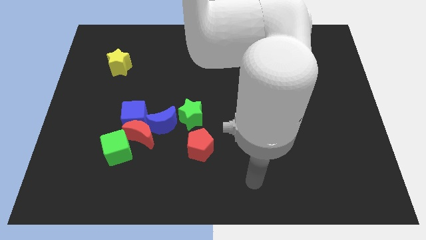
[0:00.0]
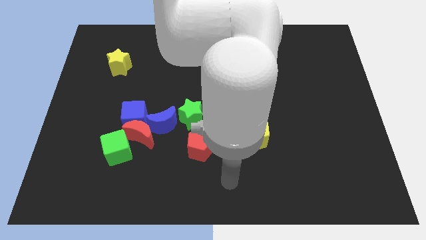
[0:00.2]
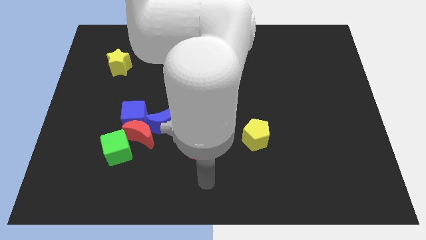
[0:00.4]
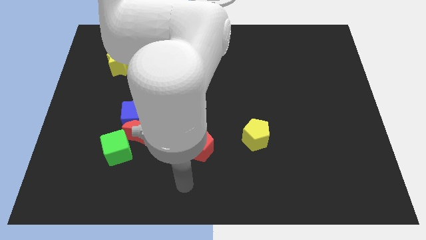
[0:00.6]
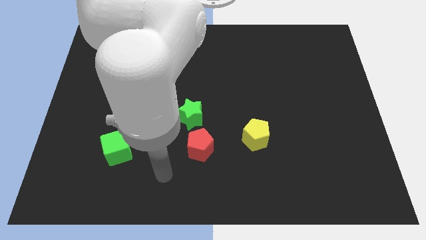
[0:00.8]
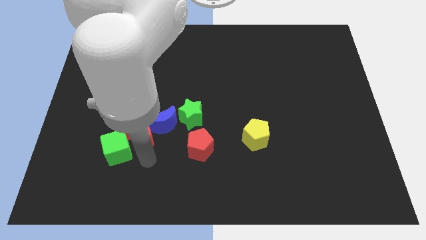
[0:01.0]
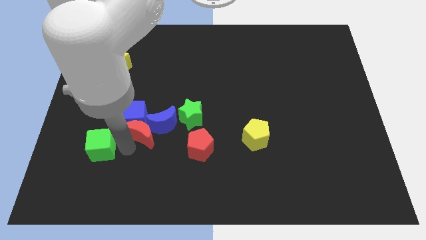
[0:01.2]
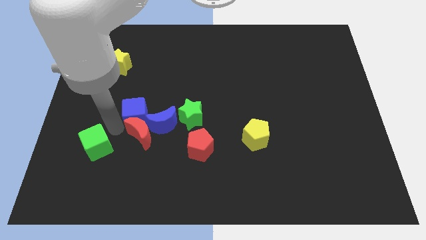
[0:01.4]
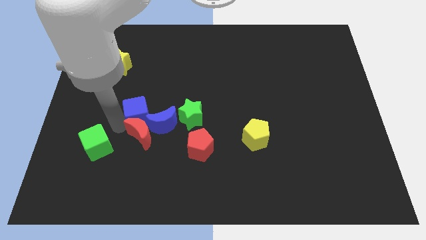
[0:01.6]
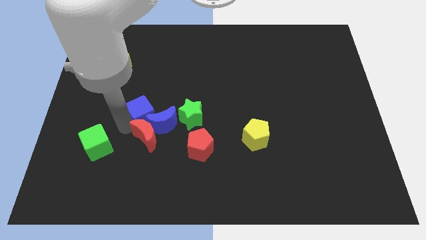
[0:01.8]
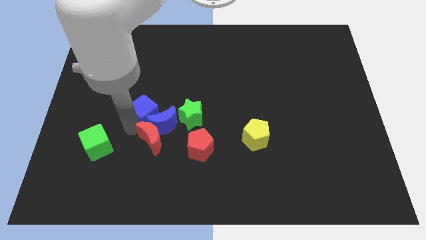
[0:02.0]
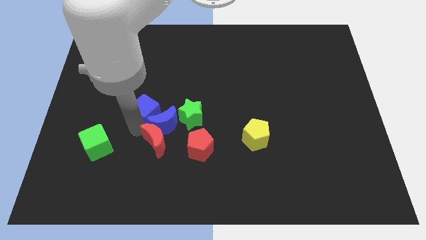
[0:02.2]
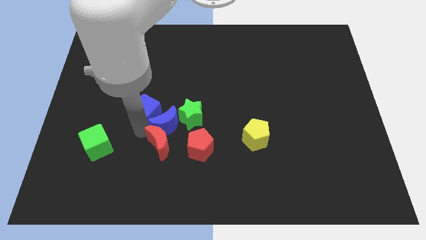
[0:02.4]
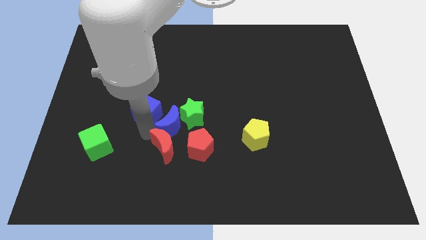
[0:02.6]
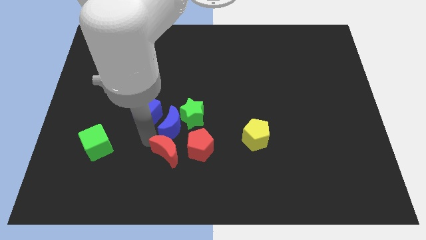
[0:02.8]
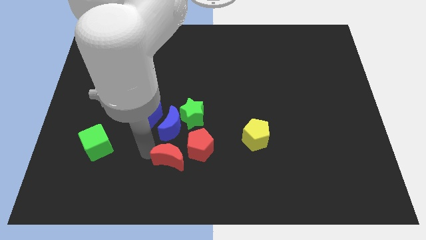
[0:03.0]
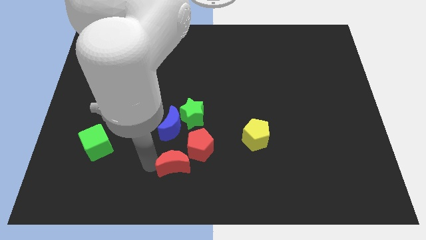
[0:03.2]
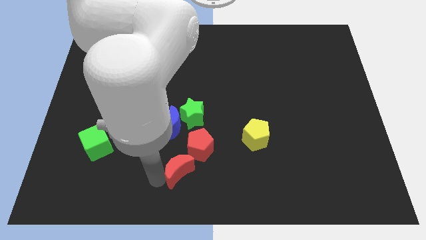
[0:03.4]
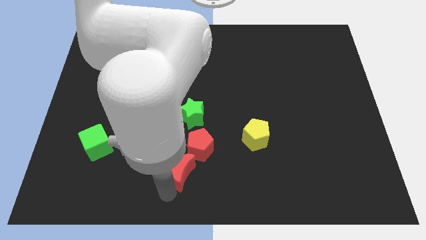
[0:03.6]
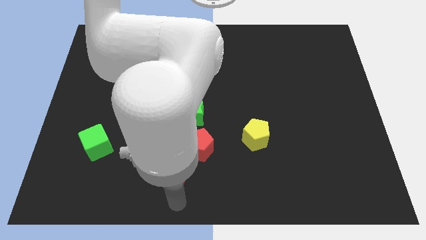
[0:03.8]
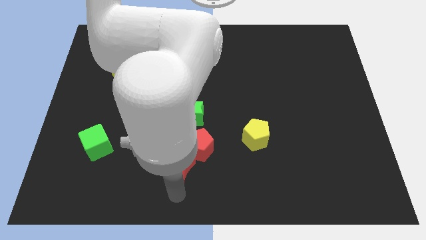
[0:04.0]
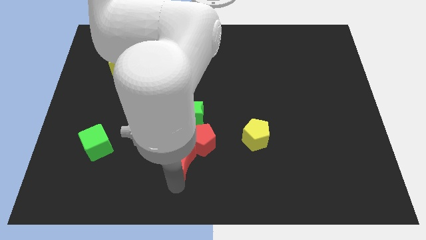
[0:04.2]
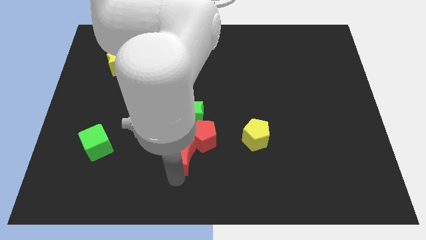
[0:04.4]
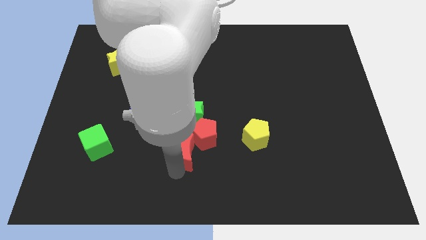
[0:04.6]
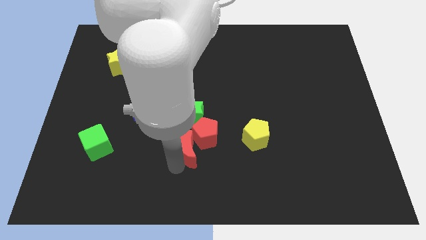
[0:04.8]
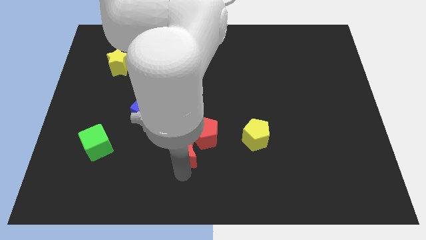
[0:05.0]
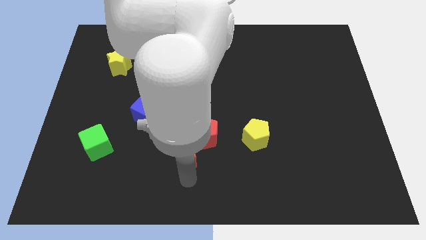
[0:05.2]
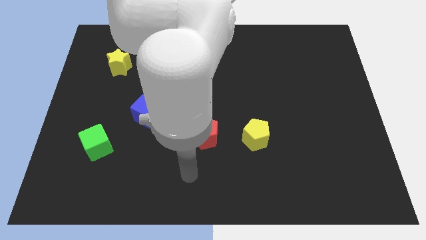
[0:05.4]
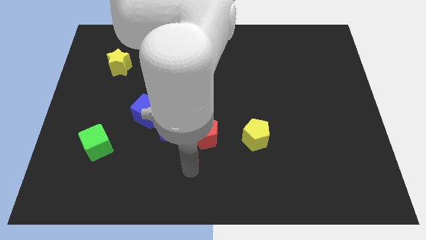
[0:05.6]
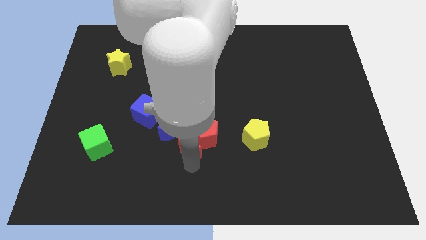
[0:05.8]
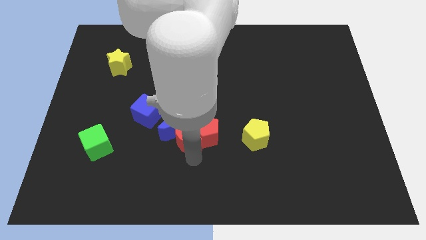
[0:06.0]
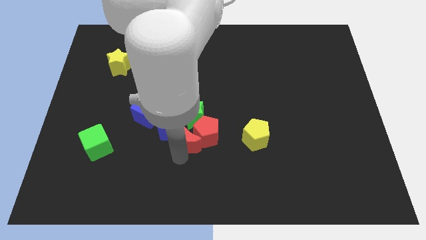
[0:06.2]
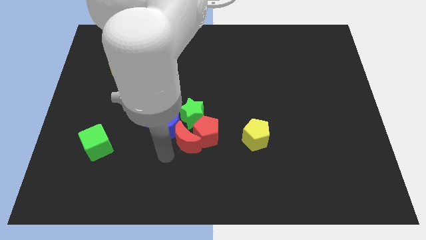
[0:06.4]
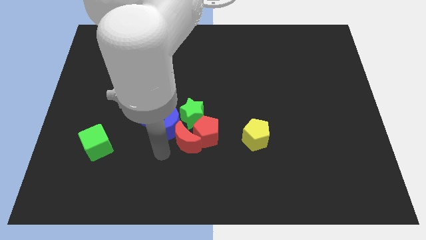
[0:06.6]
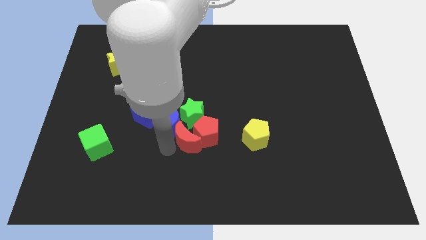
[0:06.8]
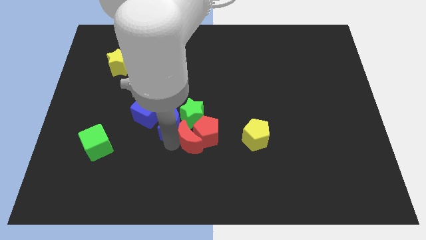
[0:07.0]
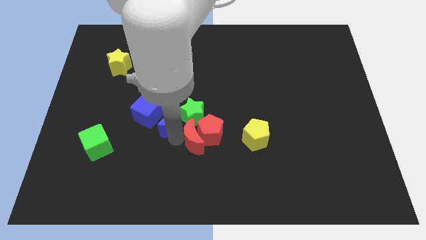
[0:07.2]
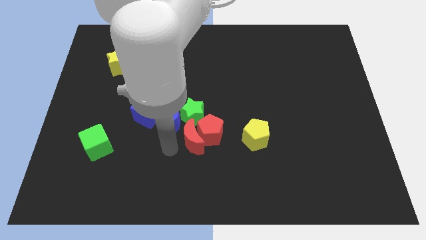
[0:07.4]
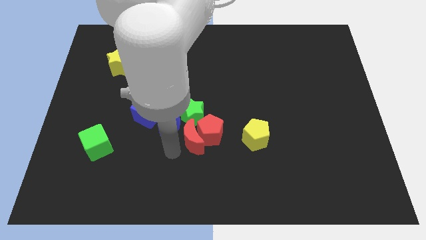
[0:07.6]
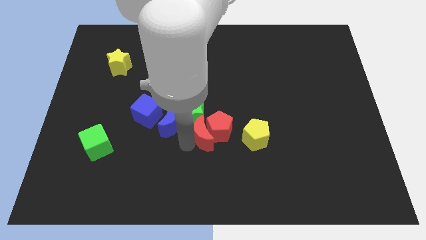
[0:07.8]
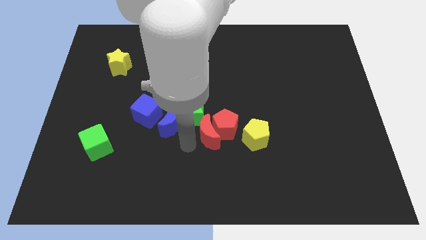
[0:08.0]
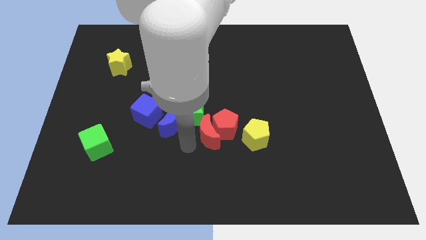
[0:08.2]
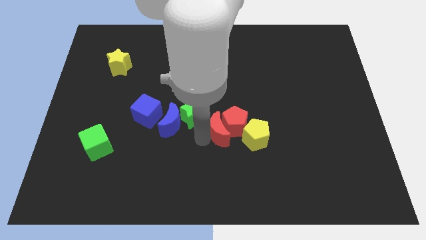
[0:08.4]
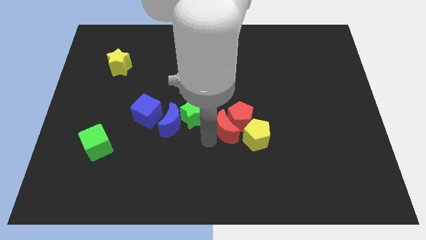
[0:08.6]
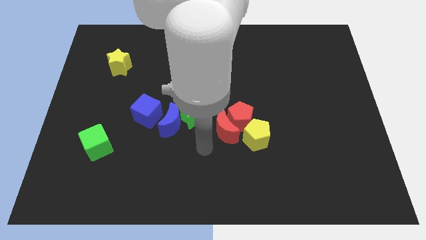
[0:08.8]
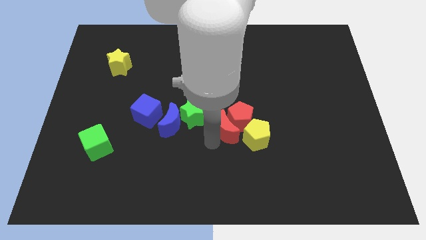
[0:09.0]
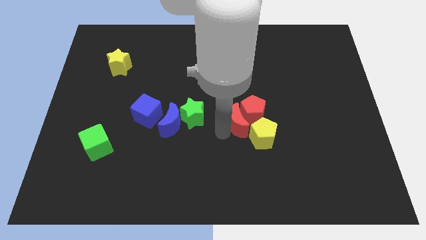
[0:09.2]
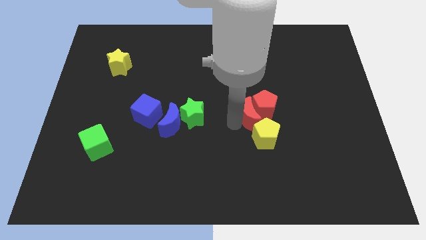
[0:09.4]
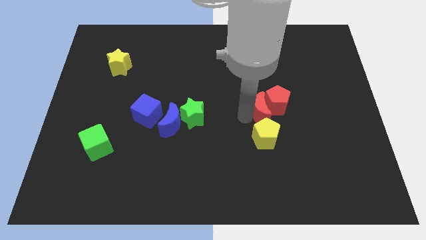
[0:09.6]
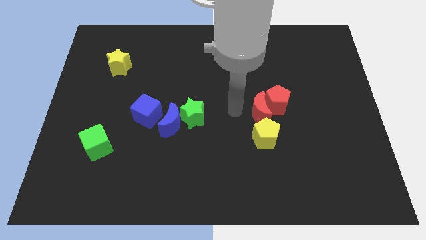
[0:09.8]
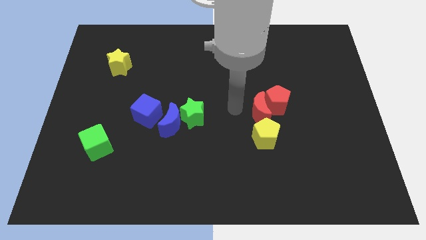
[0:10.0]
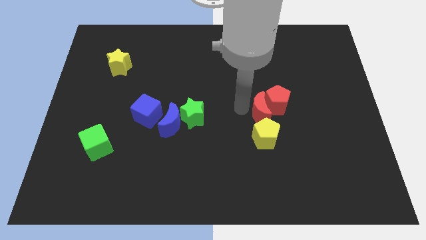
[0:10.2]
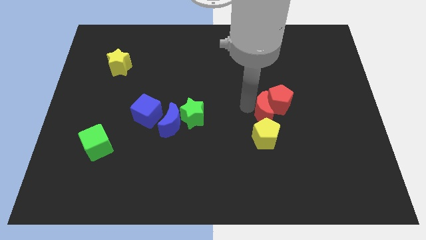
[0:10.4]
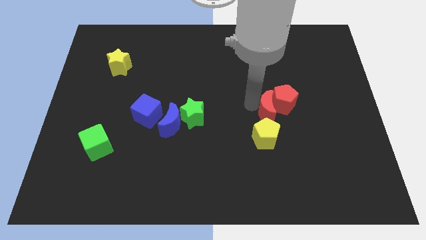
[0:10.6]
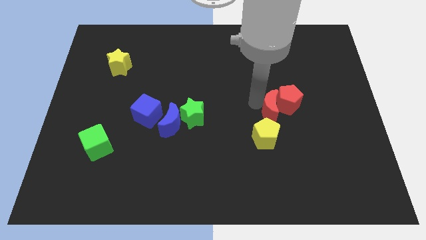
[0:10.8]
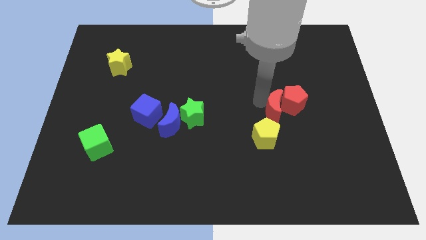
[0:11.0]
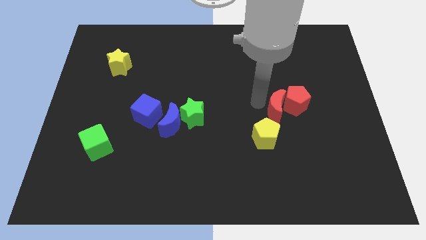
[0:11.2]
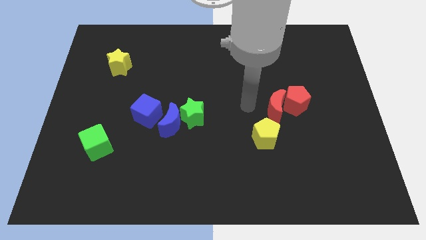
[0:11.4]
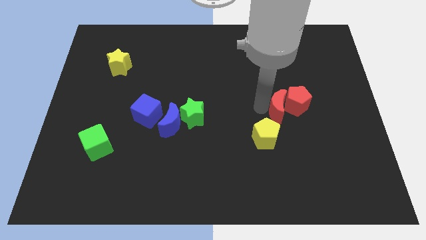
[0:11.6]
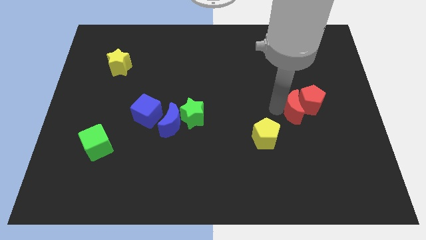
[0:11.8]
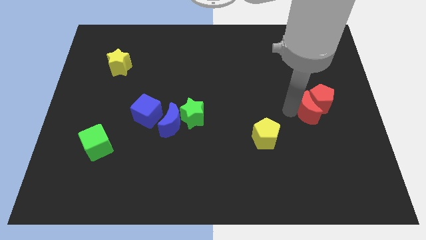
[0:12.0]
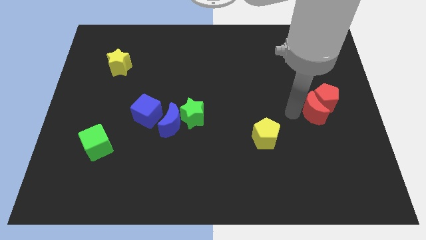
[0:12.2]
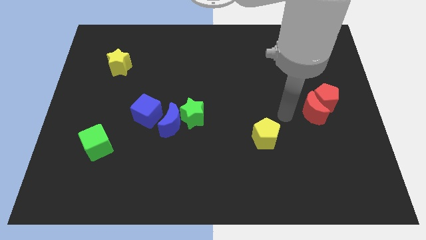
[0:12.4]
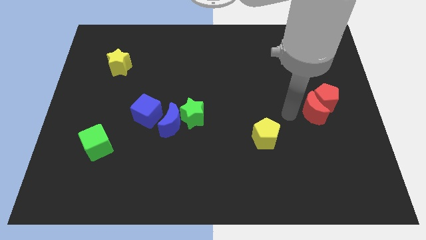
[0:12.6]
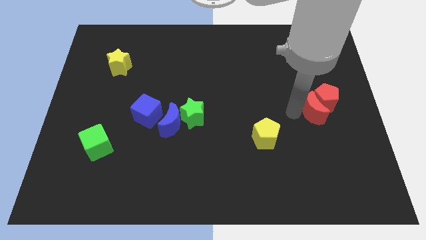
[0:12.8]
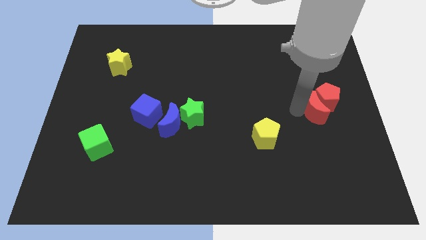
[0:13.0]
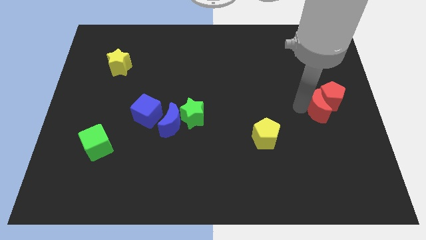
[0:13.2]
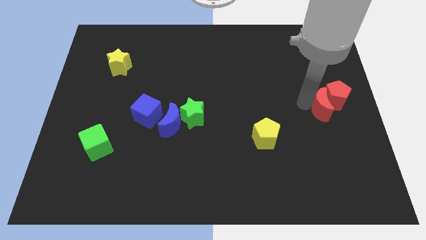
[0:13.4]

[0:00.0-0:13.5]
move the red moon to the center right
